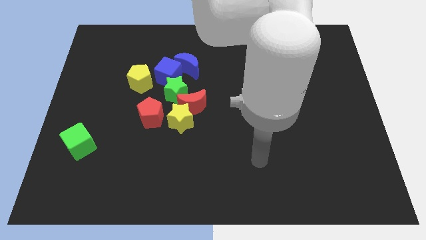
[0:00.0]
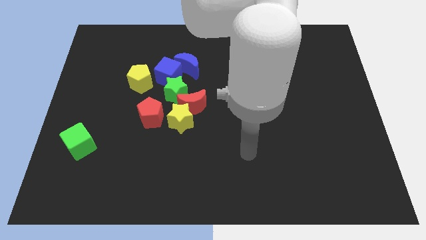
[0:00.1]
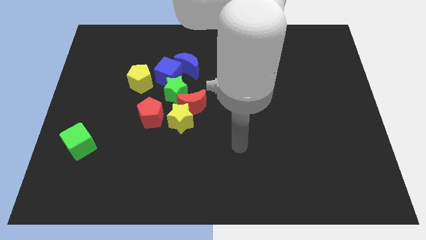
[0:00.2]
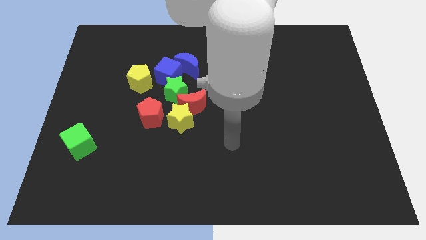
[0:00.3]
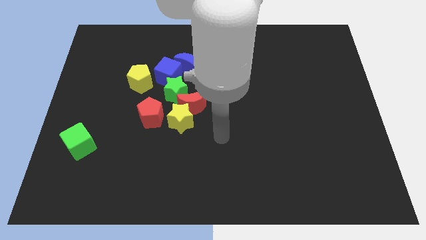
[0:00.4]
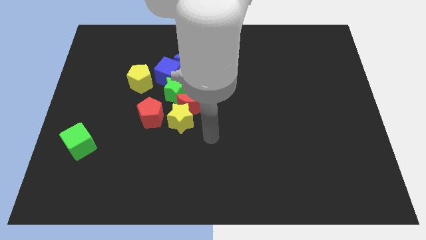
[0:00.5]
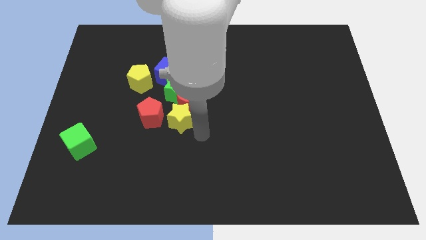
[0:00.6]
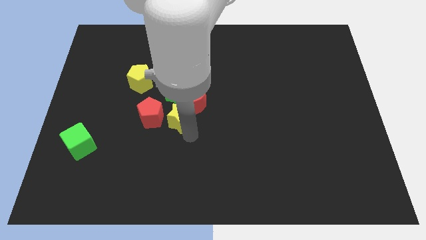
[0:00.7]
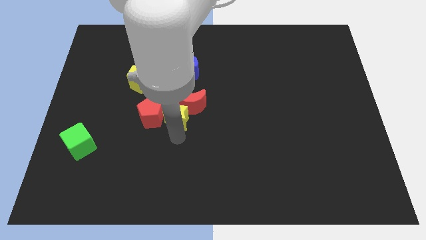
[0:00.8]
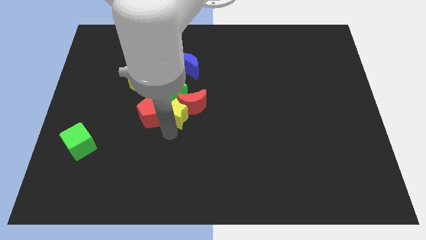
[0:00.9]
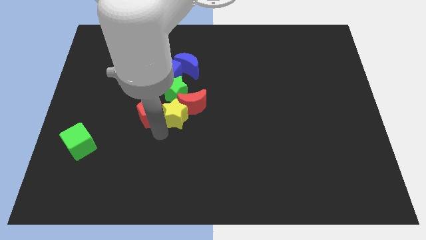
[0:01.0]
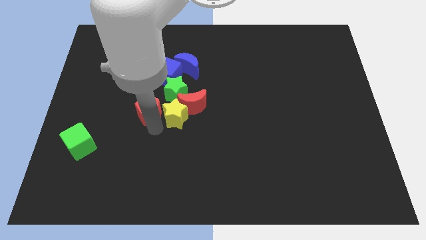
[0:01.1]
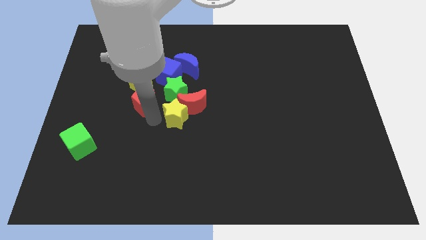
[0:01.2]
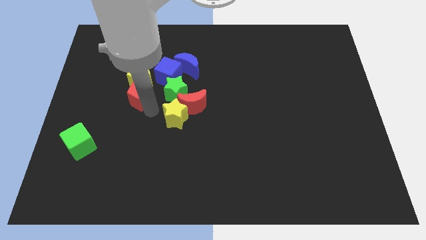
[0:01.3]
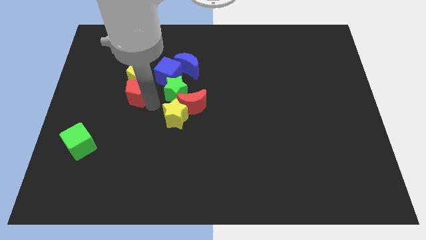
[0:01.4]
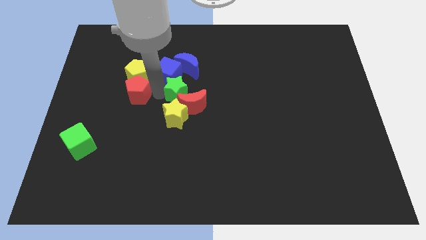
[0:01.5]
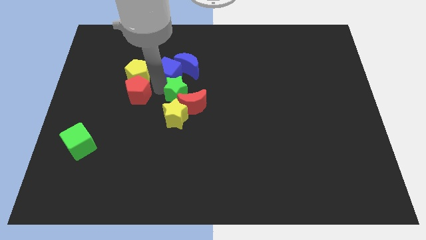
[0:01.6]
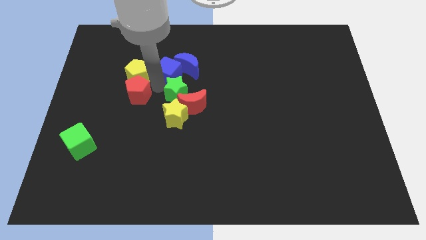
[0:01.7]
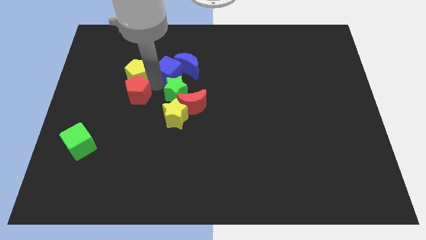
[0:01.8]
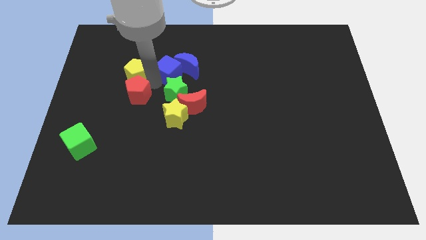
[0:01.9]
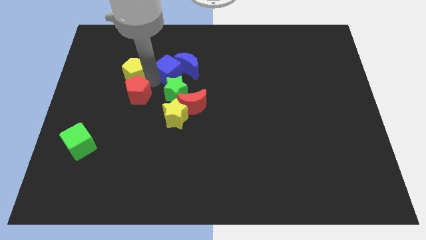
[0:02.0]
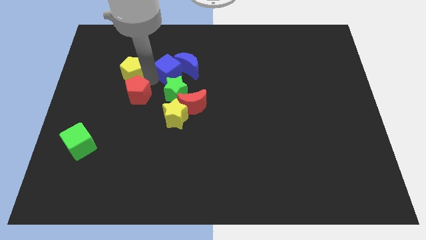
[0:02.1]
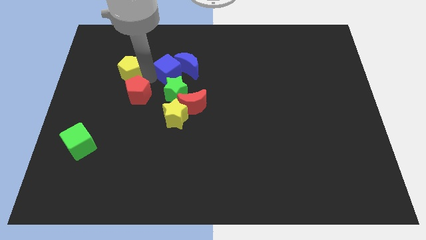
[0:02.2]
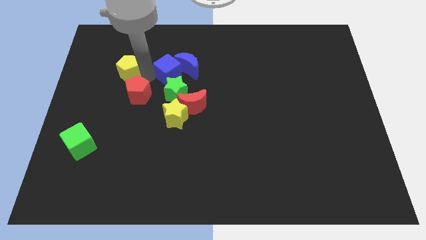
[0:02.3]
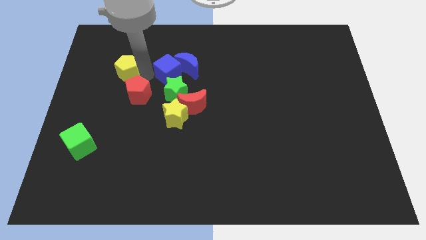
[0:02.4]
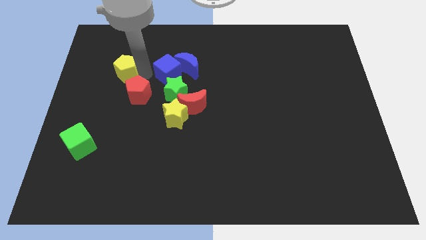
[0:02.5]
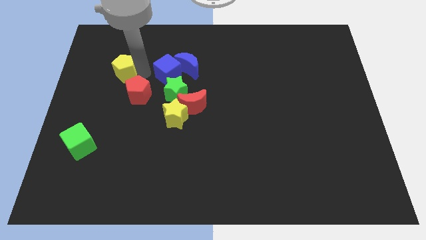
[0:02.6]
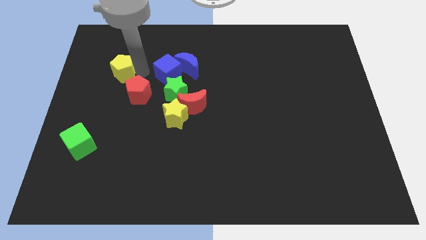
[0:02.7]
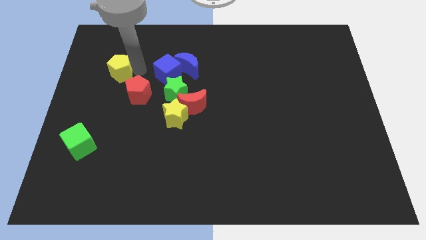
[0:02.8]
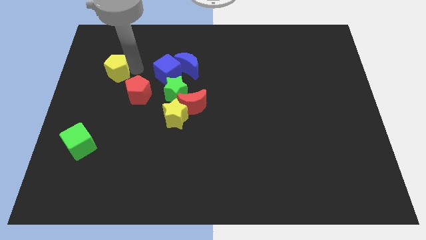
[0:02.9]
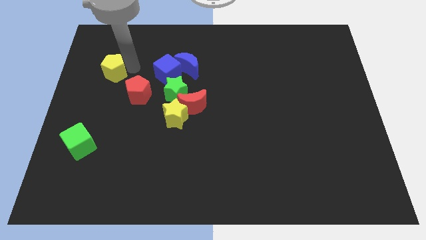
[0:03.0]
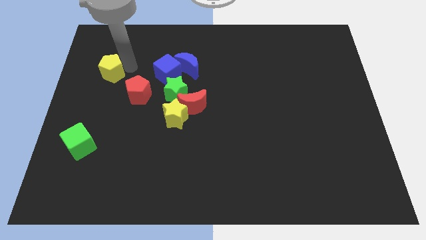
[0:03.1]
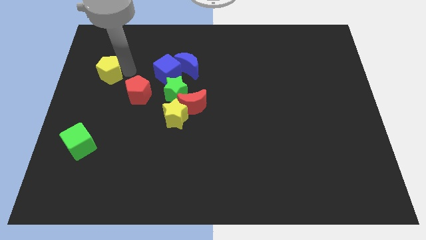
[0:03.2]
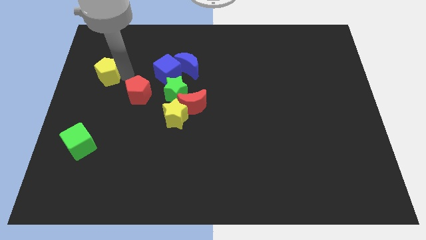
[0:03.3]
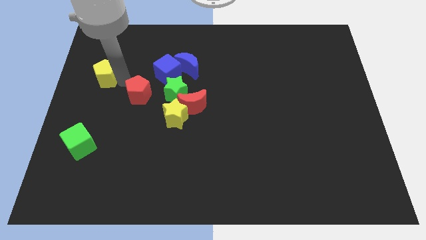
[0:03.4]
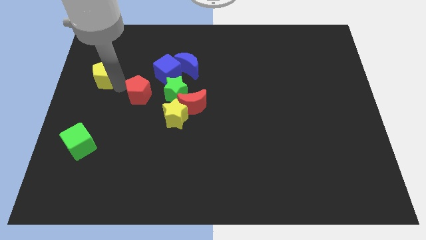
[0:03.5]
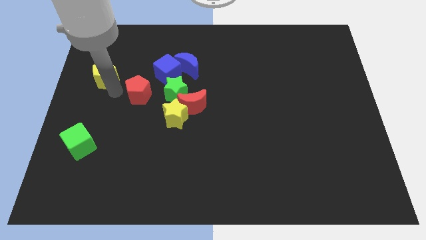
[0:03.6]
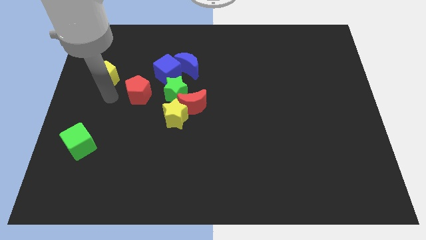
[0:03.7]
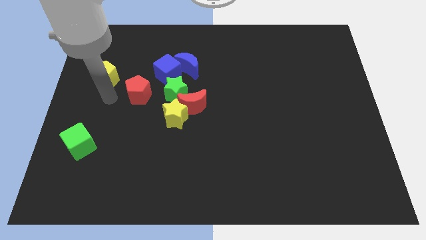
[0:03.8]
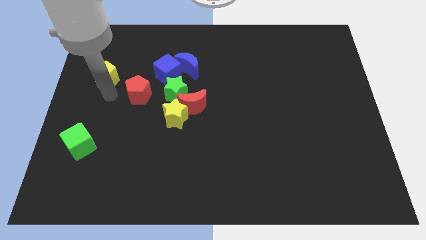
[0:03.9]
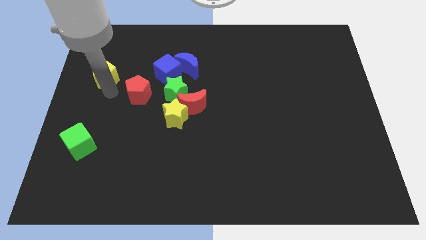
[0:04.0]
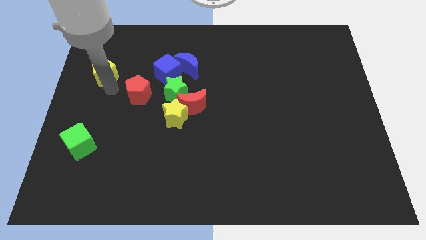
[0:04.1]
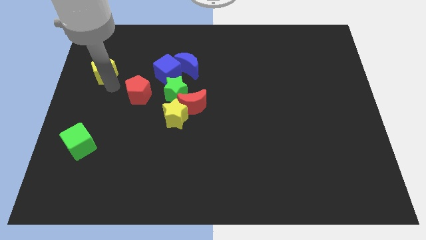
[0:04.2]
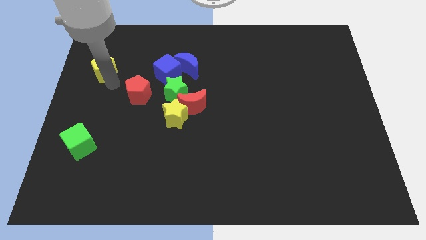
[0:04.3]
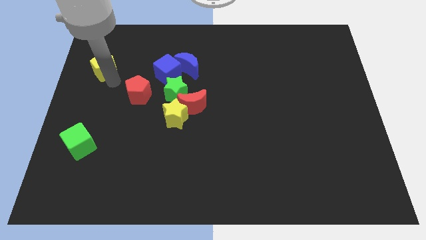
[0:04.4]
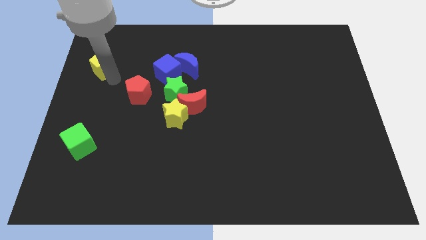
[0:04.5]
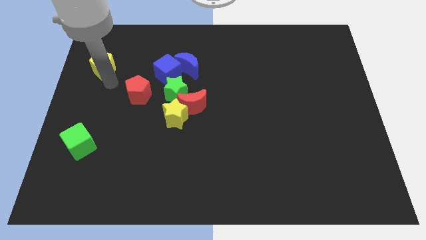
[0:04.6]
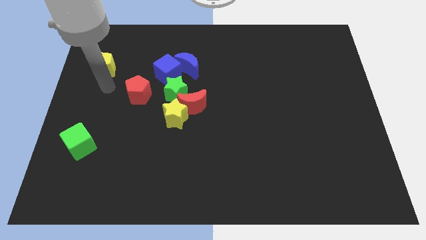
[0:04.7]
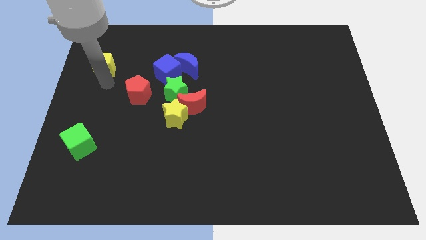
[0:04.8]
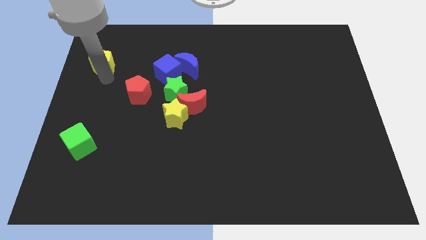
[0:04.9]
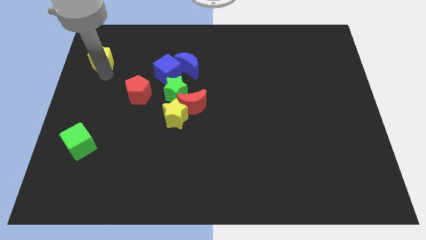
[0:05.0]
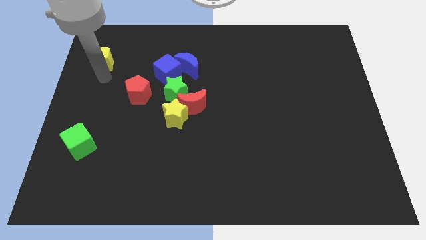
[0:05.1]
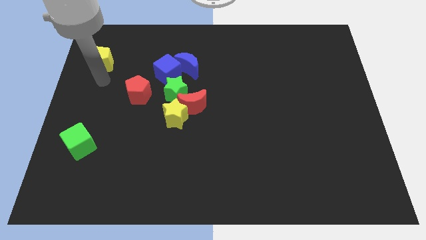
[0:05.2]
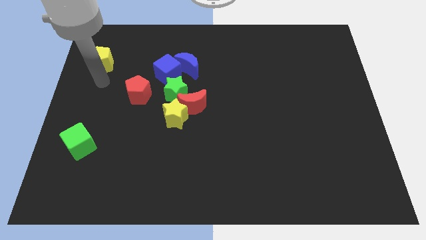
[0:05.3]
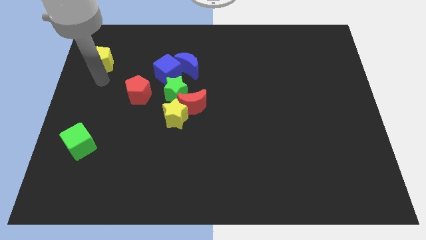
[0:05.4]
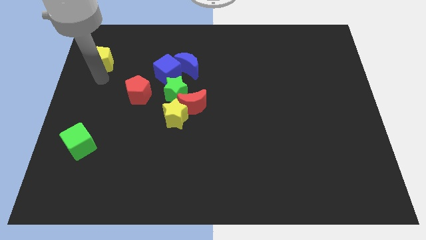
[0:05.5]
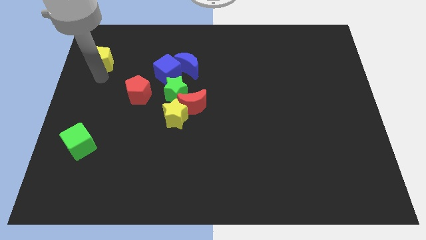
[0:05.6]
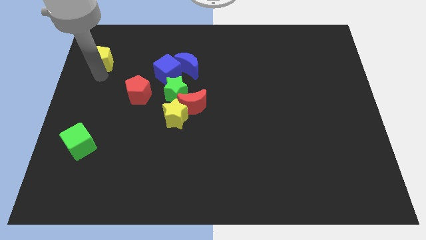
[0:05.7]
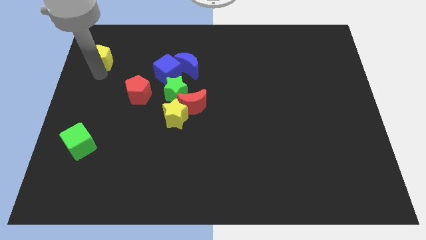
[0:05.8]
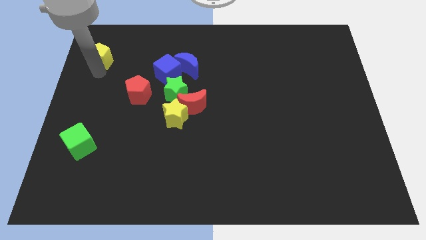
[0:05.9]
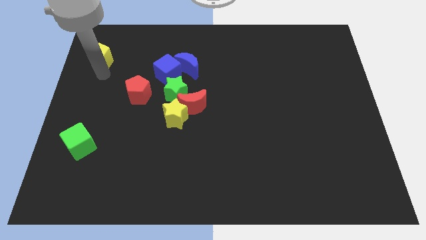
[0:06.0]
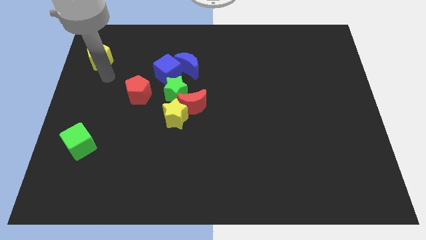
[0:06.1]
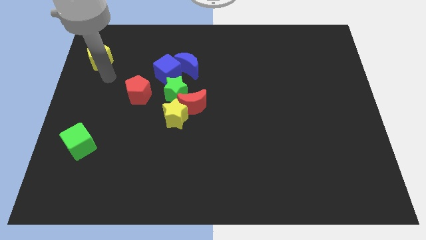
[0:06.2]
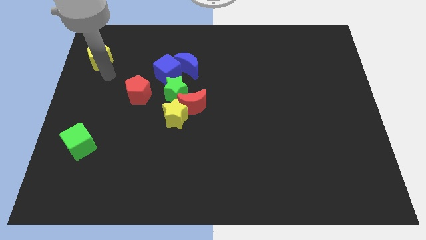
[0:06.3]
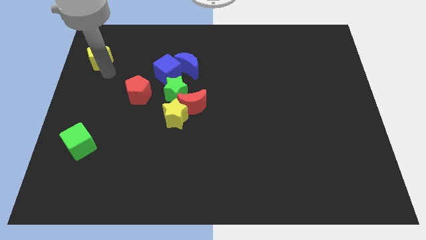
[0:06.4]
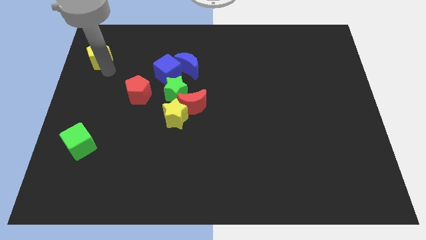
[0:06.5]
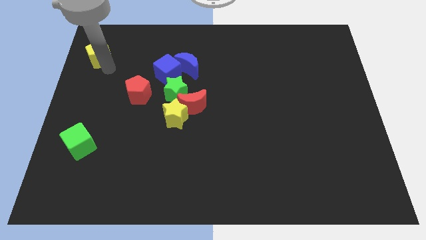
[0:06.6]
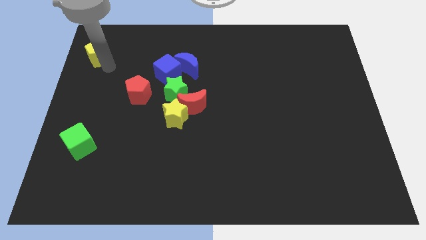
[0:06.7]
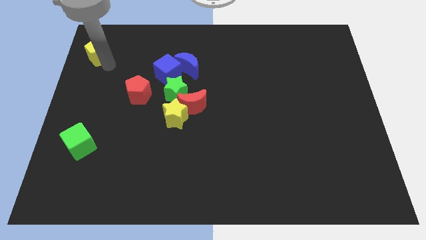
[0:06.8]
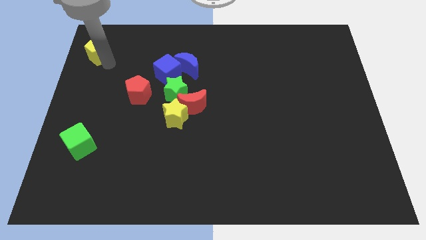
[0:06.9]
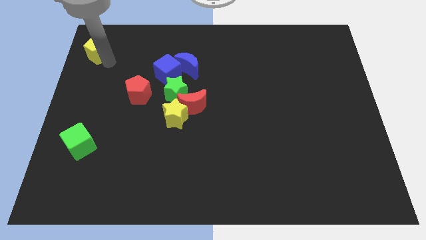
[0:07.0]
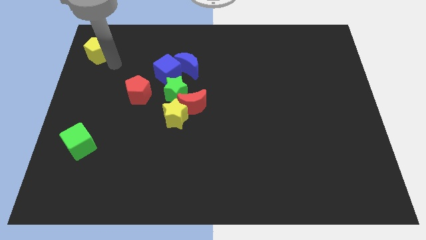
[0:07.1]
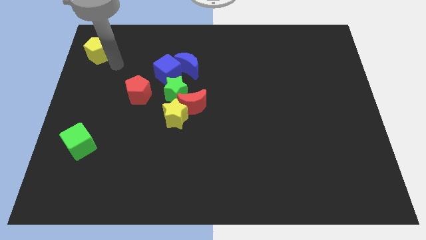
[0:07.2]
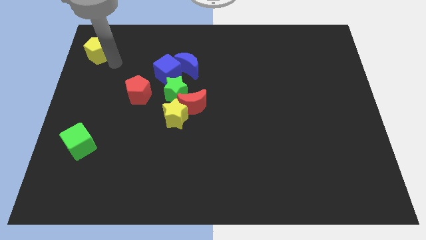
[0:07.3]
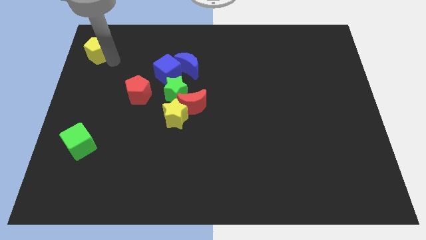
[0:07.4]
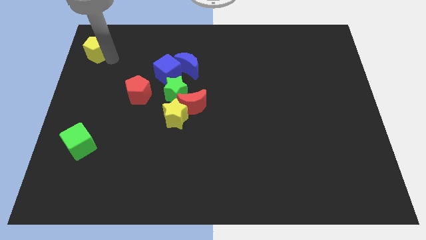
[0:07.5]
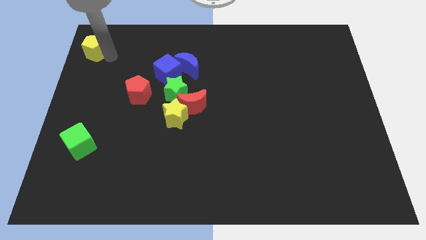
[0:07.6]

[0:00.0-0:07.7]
push the yellow pentagon to the top left of the board
